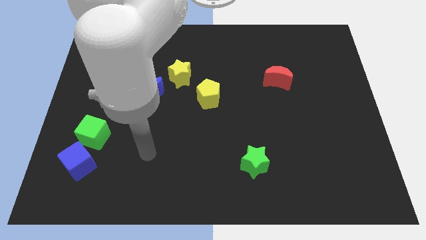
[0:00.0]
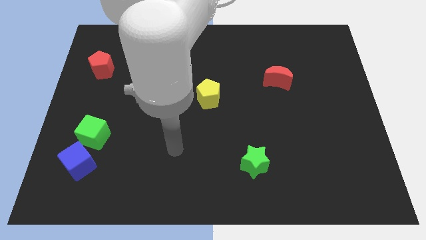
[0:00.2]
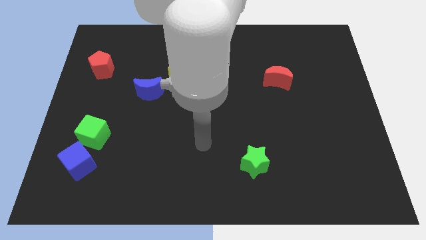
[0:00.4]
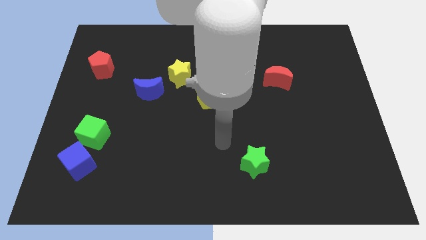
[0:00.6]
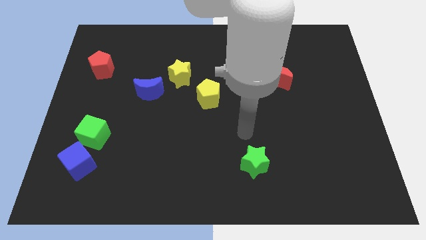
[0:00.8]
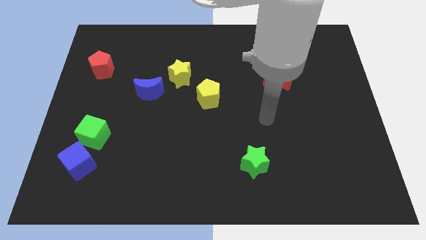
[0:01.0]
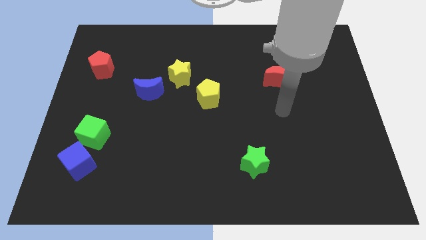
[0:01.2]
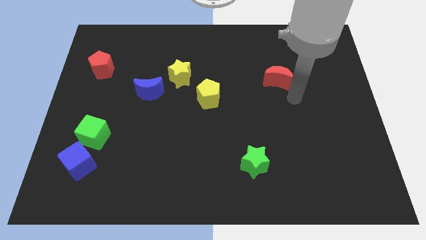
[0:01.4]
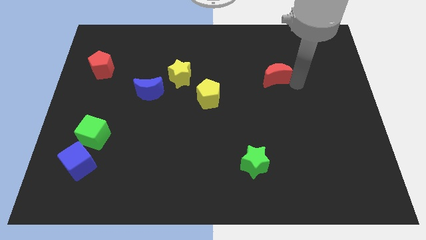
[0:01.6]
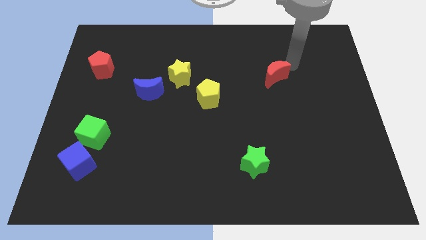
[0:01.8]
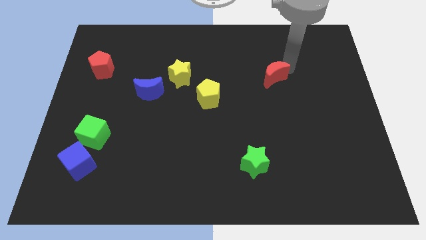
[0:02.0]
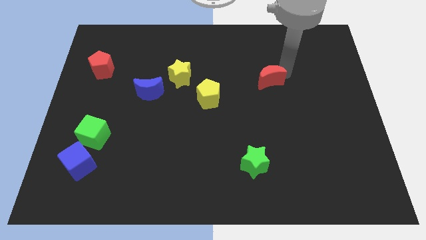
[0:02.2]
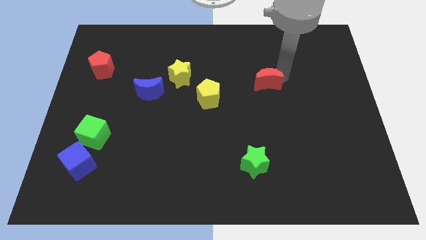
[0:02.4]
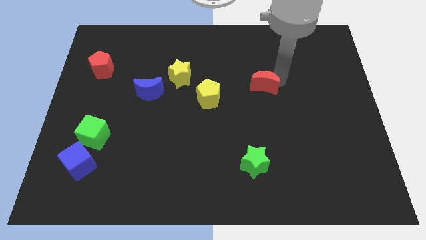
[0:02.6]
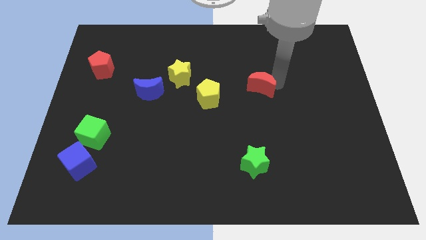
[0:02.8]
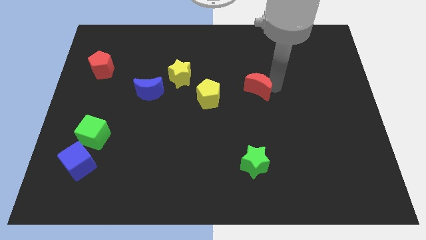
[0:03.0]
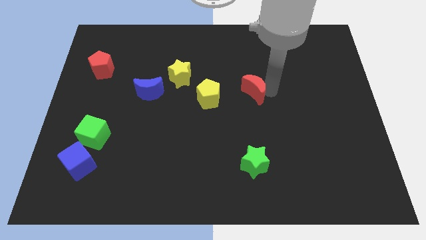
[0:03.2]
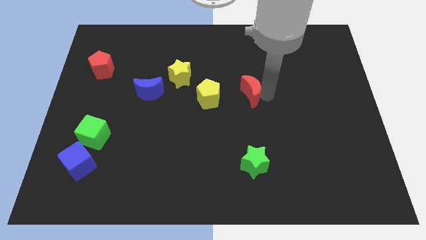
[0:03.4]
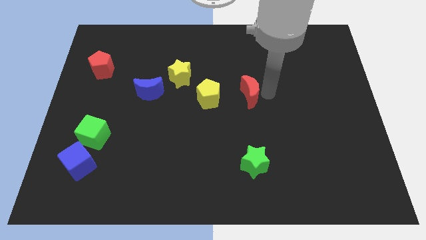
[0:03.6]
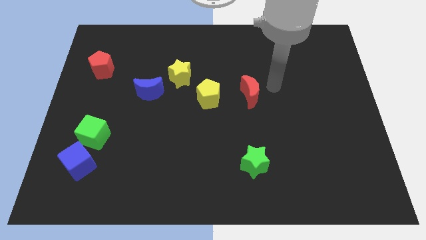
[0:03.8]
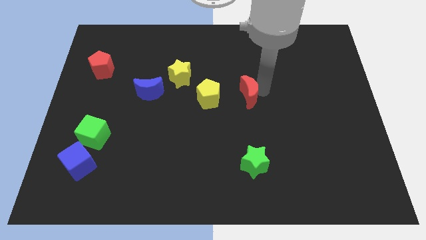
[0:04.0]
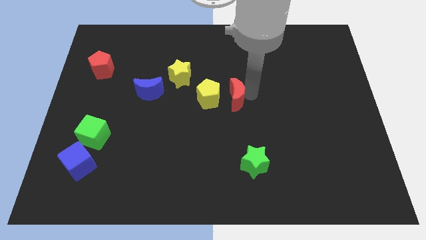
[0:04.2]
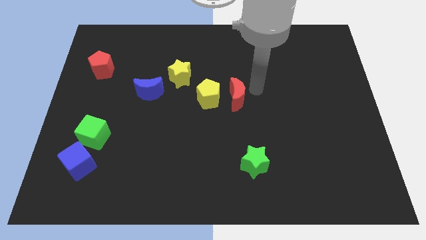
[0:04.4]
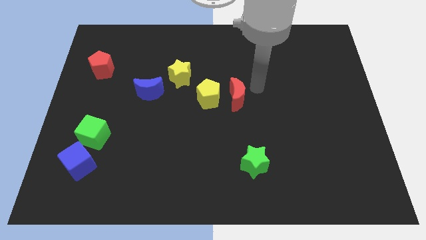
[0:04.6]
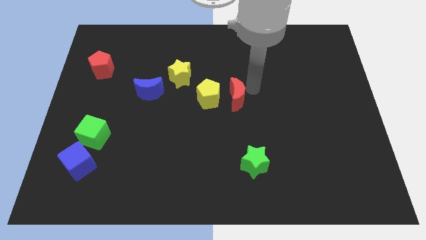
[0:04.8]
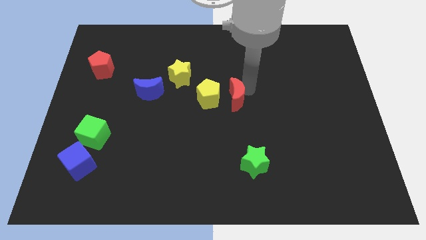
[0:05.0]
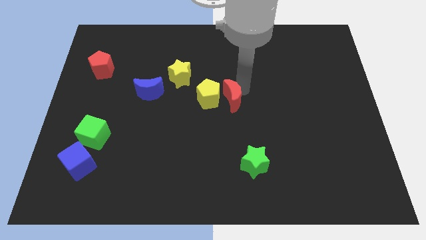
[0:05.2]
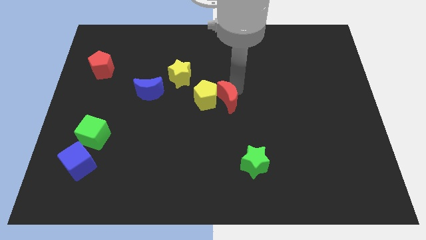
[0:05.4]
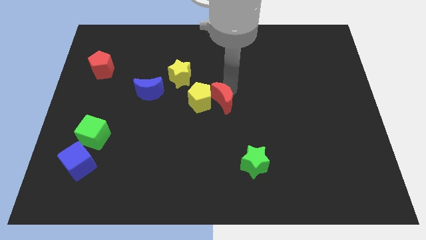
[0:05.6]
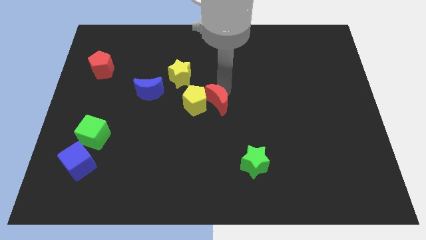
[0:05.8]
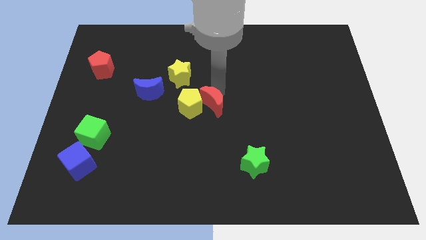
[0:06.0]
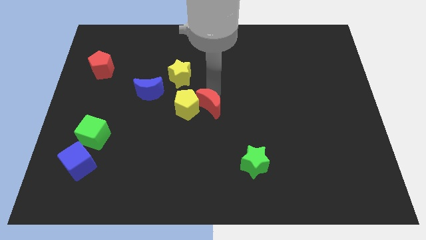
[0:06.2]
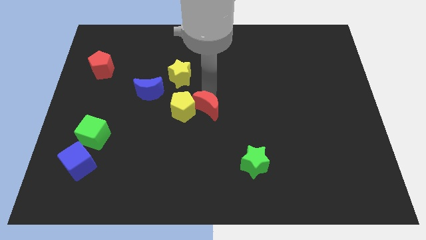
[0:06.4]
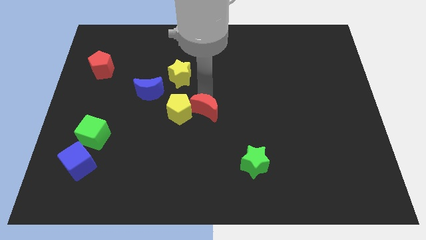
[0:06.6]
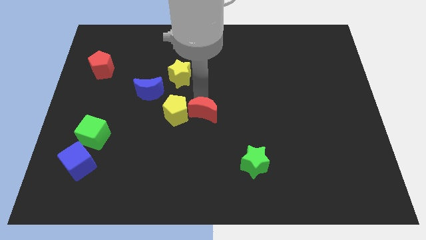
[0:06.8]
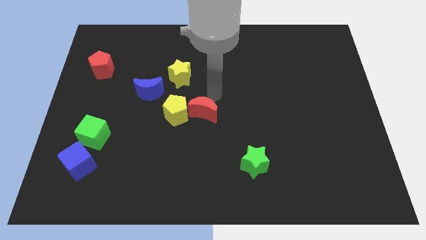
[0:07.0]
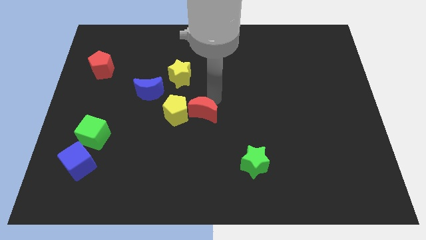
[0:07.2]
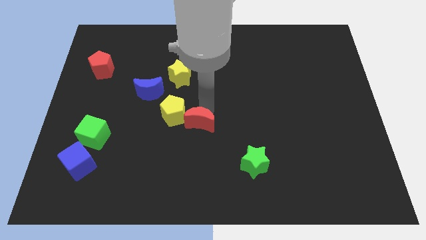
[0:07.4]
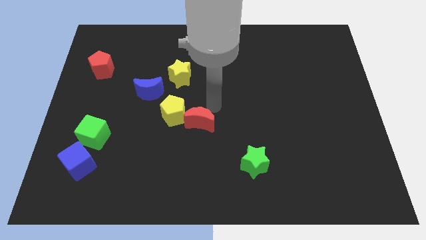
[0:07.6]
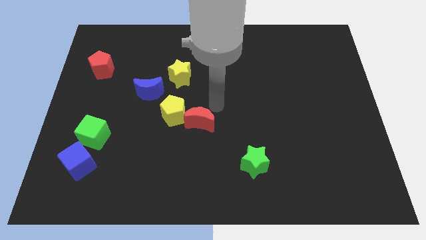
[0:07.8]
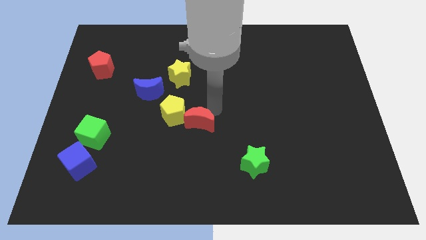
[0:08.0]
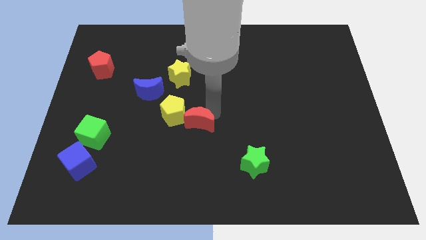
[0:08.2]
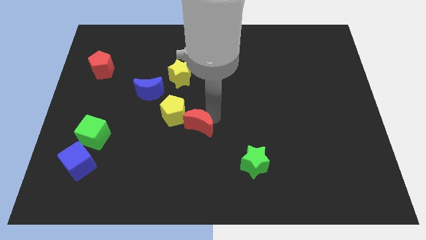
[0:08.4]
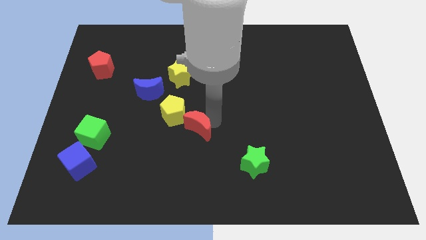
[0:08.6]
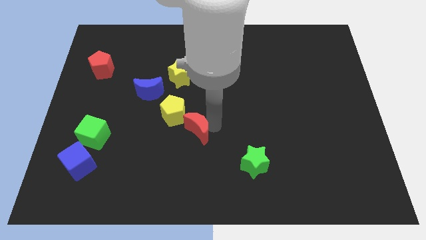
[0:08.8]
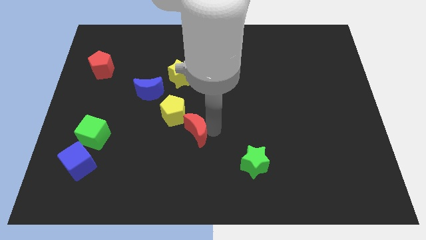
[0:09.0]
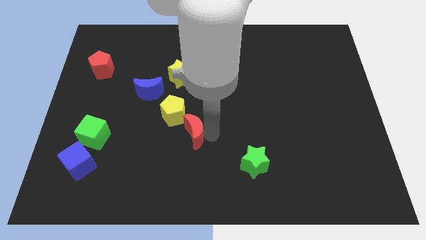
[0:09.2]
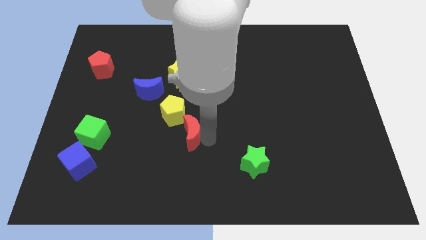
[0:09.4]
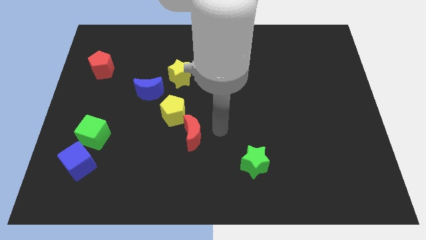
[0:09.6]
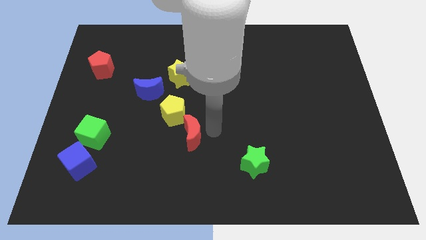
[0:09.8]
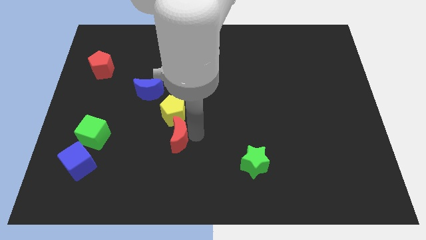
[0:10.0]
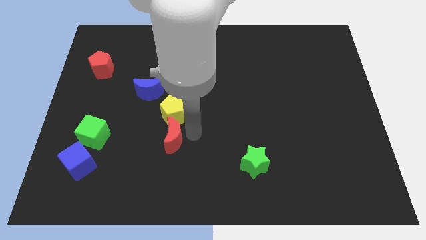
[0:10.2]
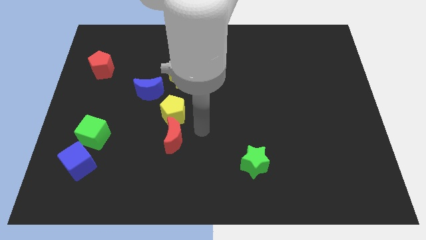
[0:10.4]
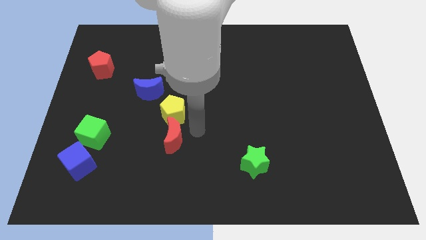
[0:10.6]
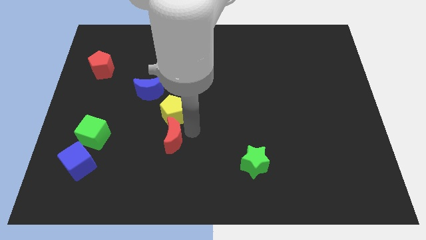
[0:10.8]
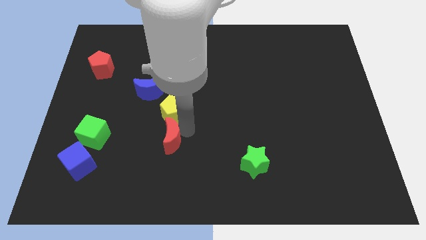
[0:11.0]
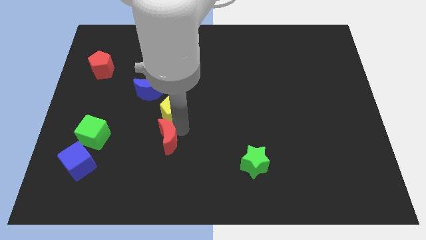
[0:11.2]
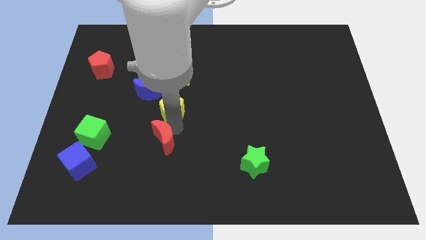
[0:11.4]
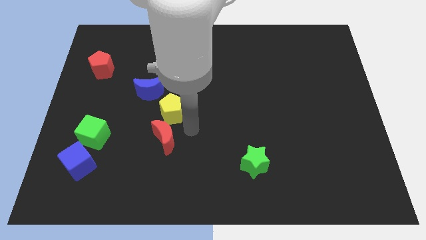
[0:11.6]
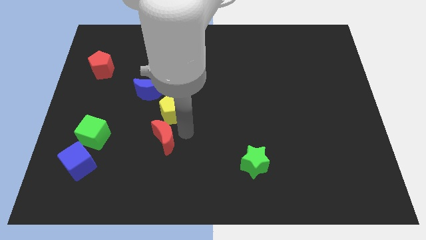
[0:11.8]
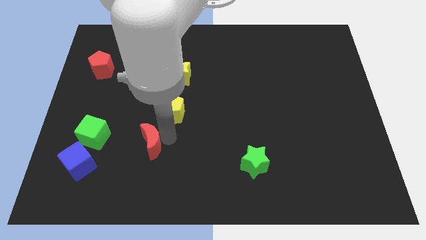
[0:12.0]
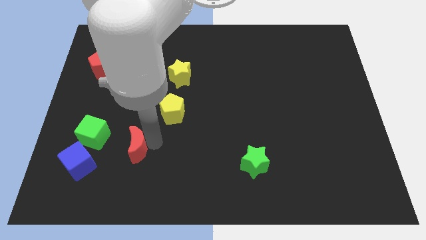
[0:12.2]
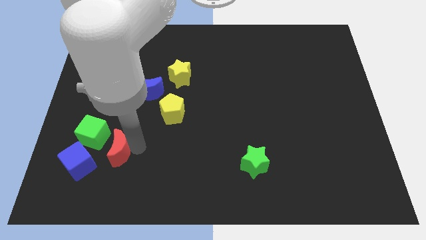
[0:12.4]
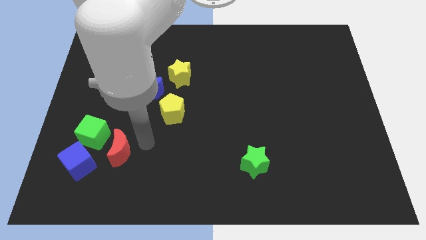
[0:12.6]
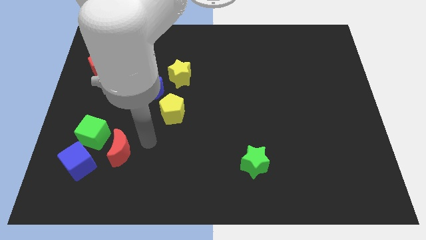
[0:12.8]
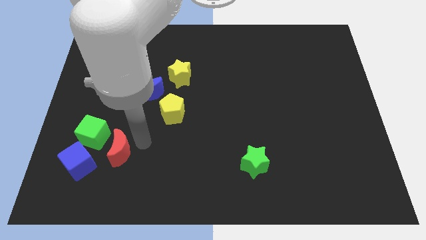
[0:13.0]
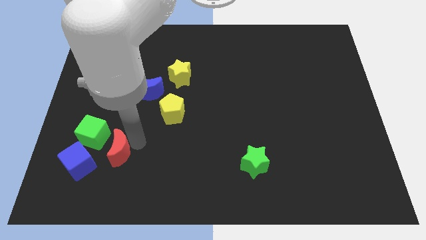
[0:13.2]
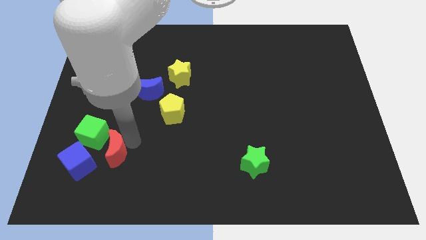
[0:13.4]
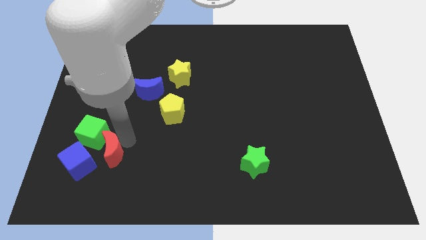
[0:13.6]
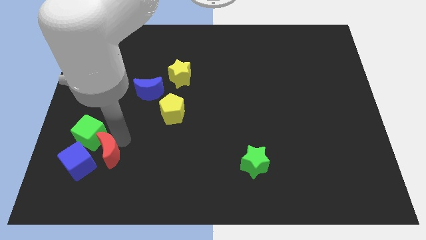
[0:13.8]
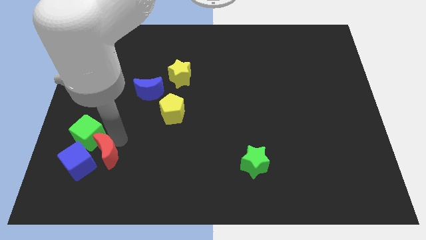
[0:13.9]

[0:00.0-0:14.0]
put the red moon close to the blue cube

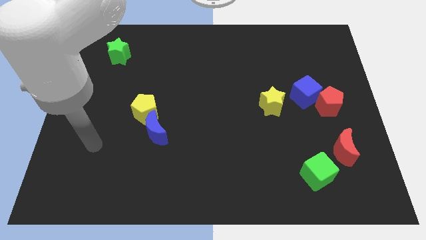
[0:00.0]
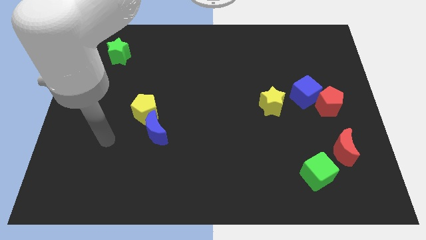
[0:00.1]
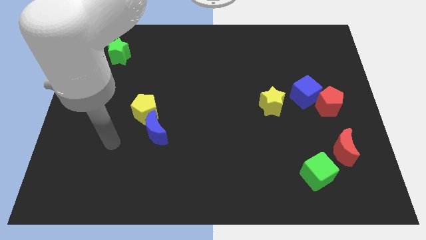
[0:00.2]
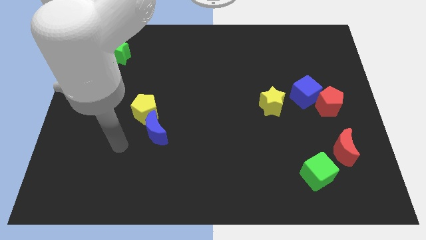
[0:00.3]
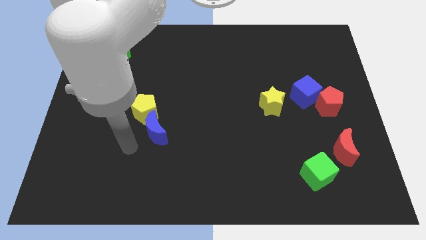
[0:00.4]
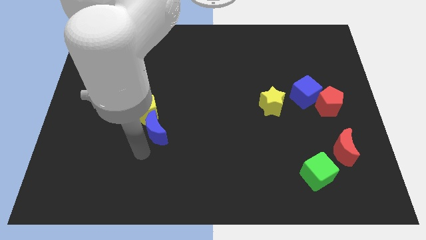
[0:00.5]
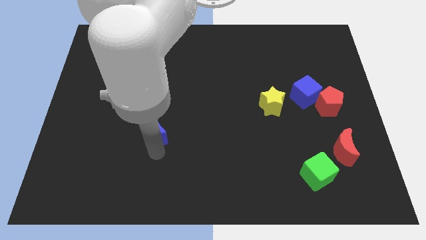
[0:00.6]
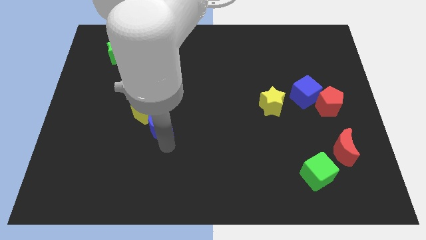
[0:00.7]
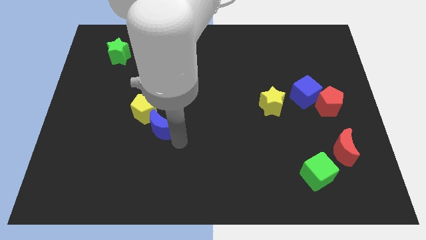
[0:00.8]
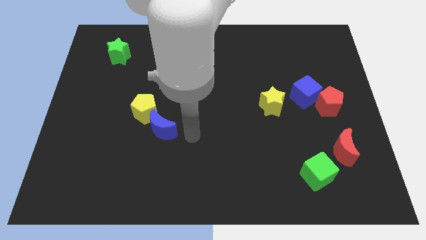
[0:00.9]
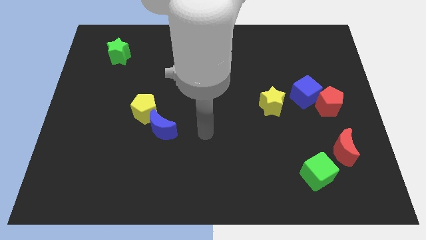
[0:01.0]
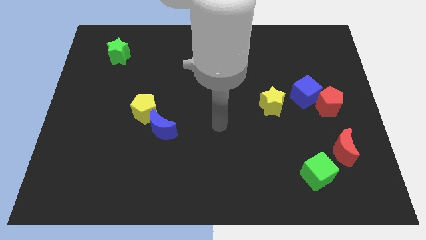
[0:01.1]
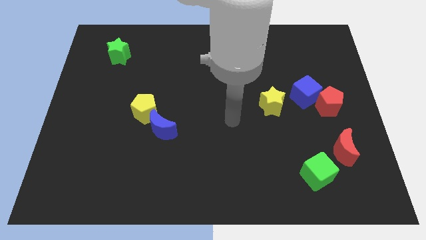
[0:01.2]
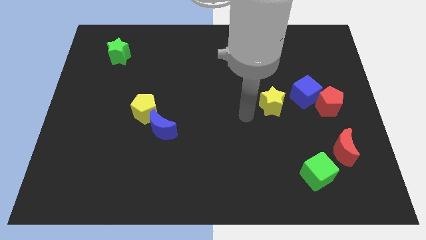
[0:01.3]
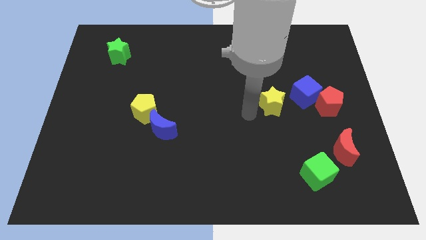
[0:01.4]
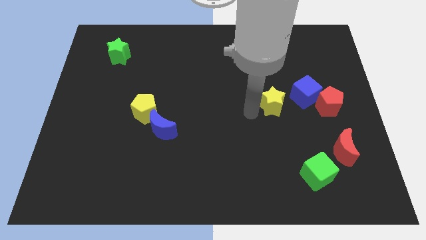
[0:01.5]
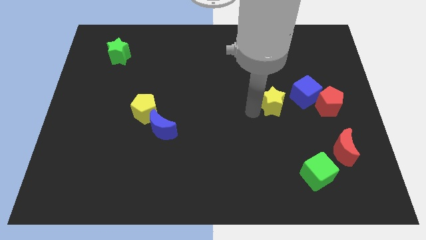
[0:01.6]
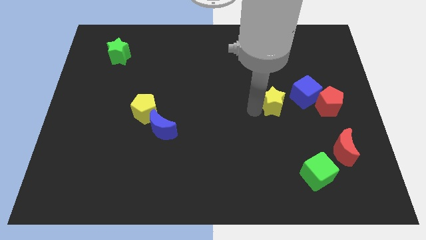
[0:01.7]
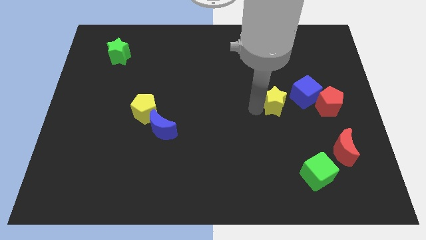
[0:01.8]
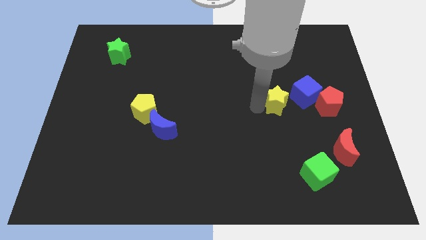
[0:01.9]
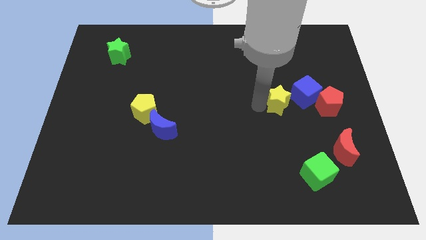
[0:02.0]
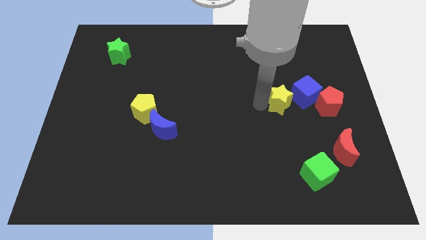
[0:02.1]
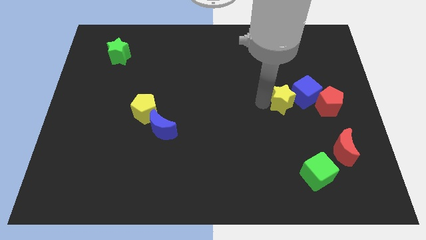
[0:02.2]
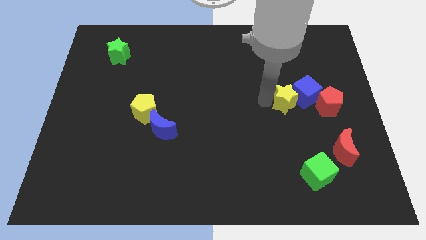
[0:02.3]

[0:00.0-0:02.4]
push the yellow star next to the blue cube
